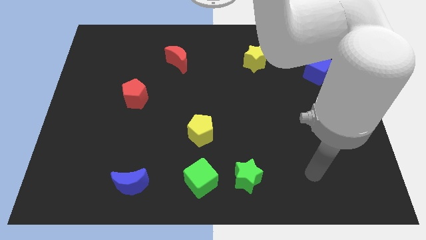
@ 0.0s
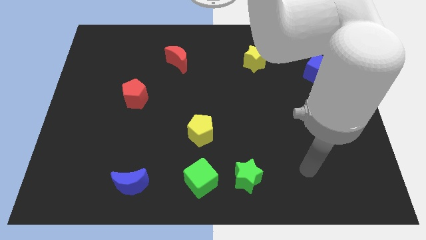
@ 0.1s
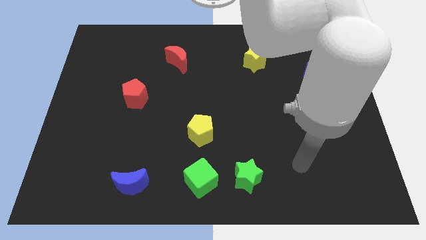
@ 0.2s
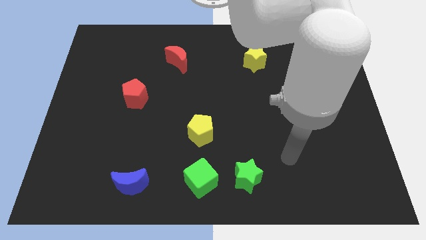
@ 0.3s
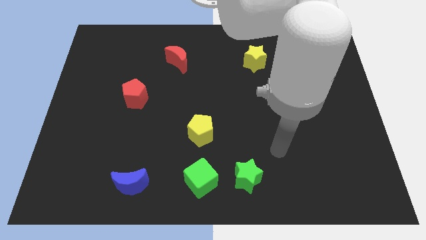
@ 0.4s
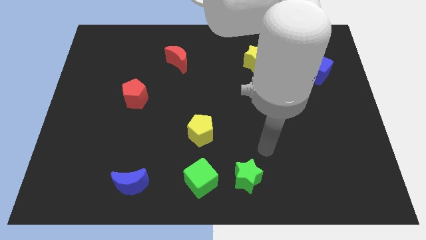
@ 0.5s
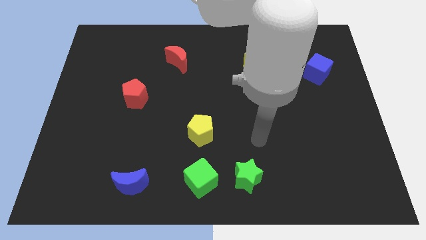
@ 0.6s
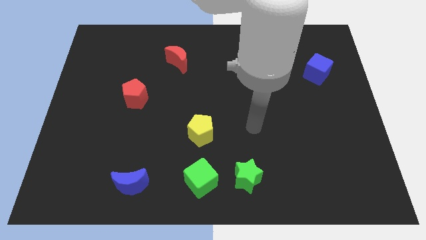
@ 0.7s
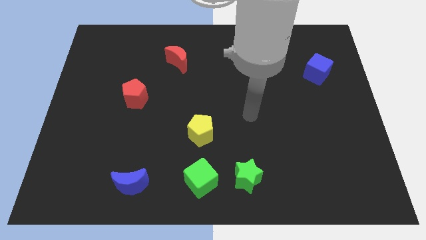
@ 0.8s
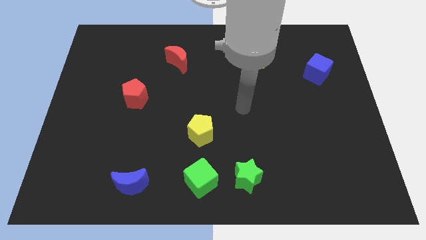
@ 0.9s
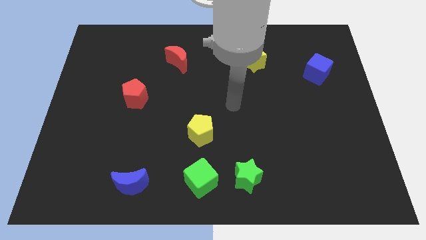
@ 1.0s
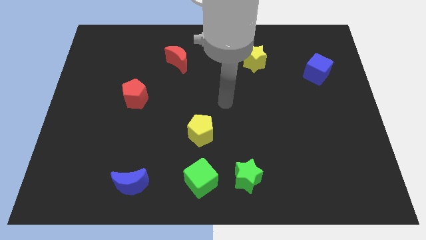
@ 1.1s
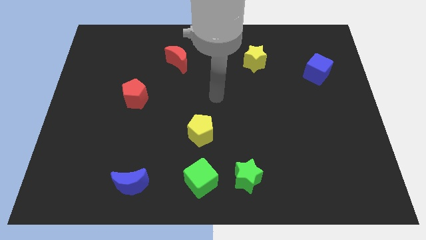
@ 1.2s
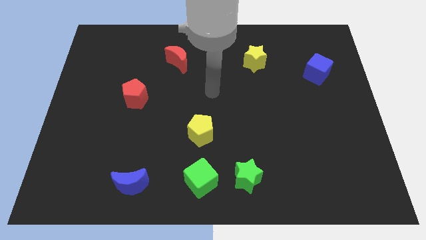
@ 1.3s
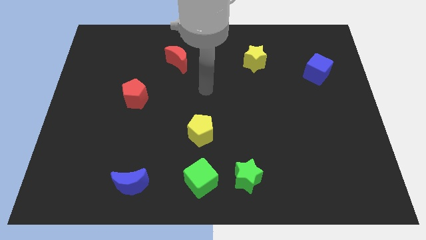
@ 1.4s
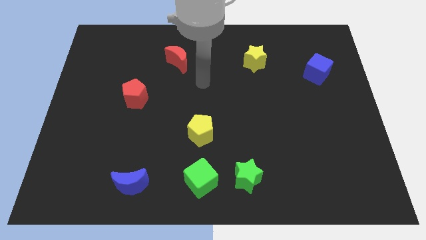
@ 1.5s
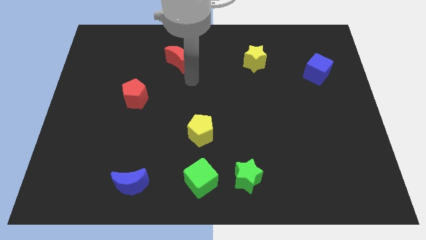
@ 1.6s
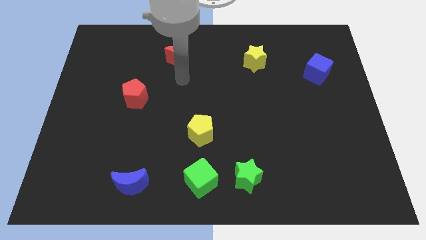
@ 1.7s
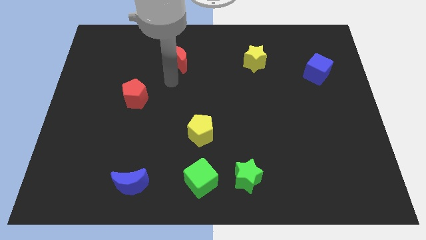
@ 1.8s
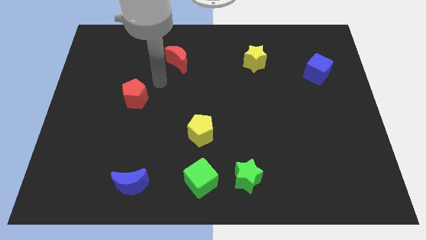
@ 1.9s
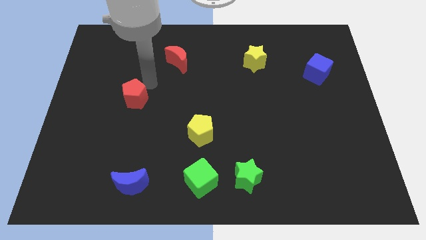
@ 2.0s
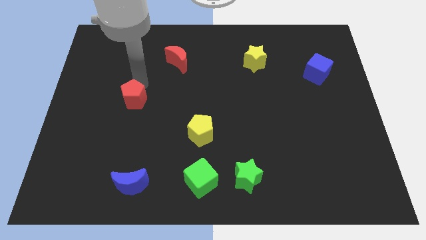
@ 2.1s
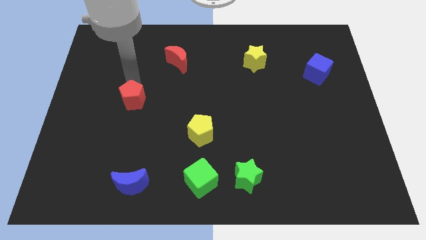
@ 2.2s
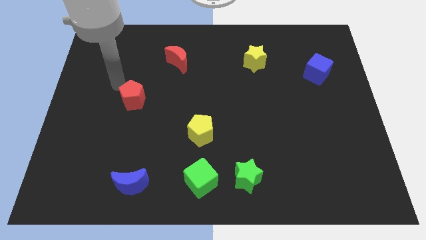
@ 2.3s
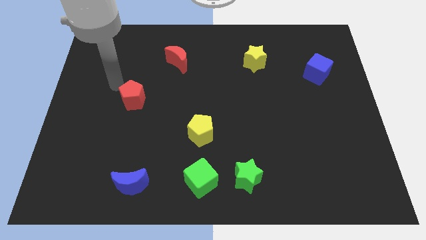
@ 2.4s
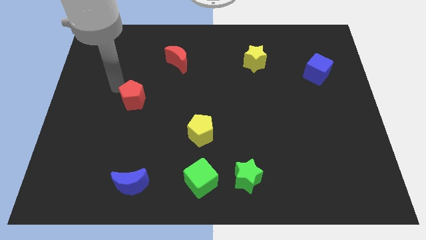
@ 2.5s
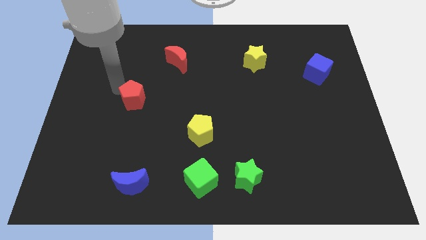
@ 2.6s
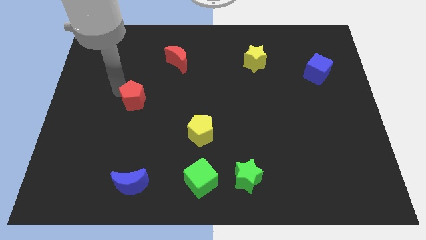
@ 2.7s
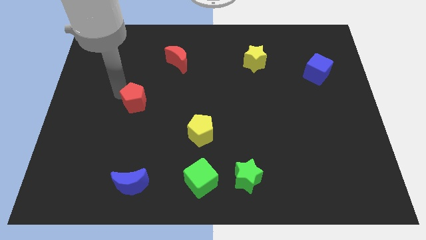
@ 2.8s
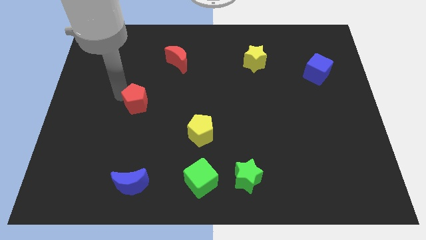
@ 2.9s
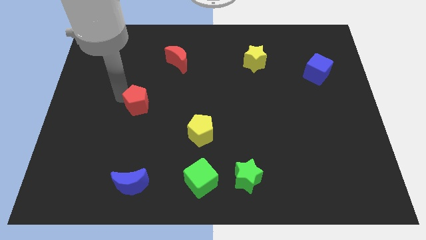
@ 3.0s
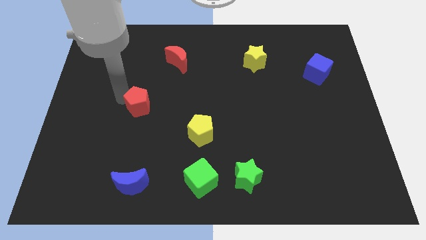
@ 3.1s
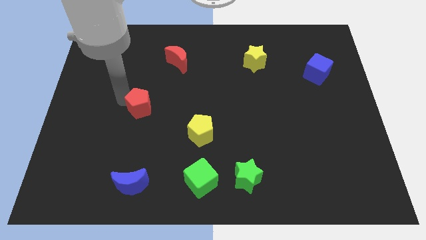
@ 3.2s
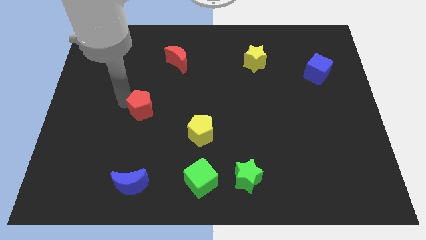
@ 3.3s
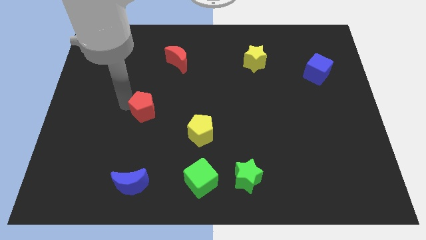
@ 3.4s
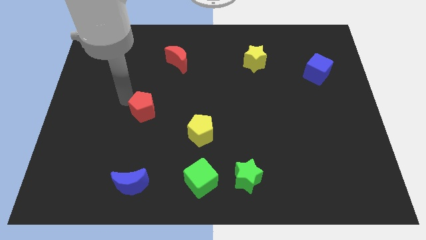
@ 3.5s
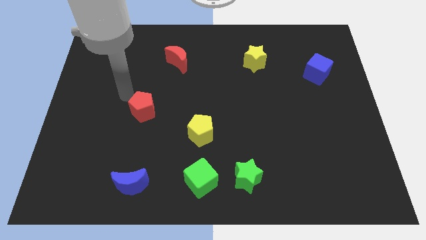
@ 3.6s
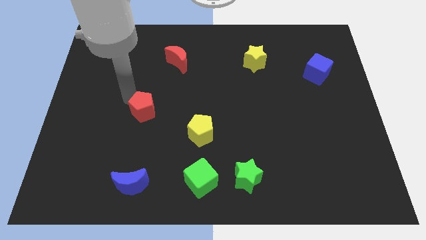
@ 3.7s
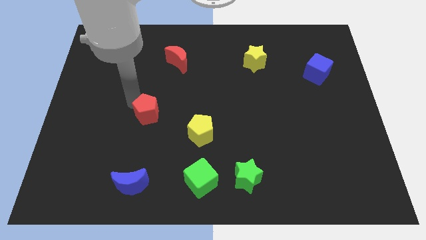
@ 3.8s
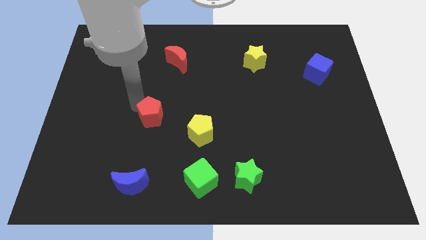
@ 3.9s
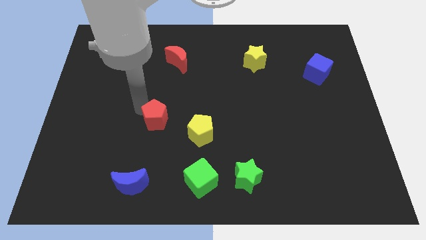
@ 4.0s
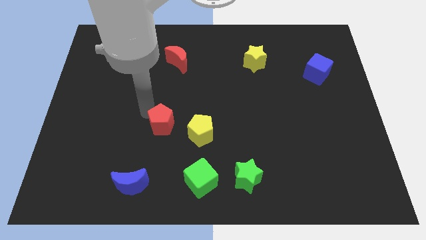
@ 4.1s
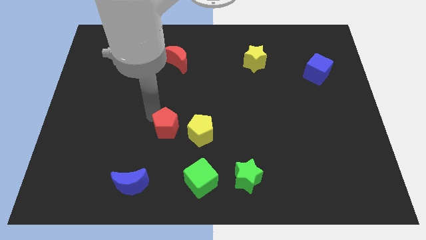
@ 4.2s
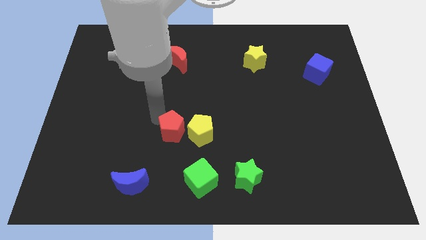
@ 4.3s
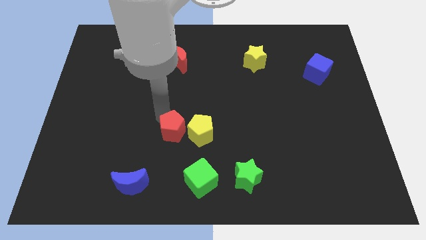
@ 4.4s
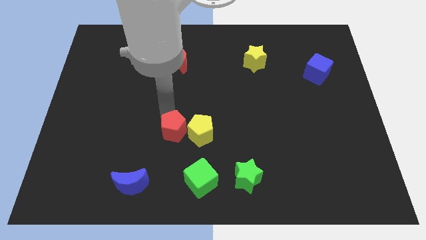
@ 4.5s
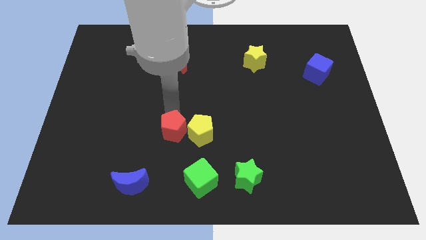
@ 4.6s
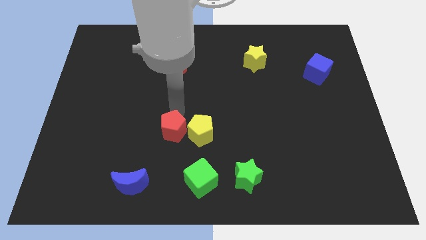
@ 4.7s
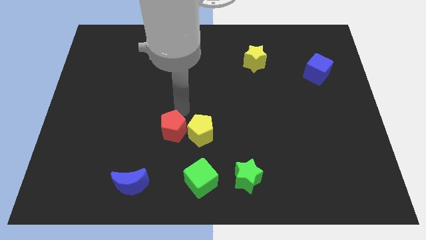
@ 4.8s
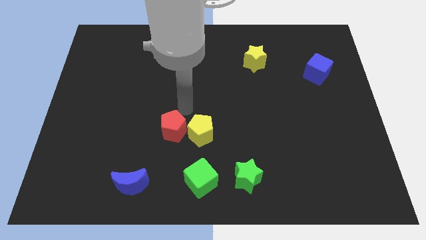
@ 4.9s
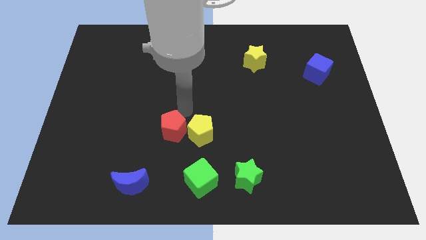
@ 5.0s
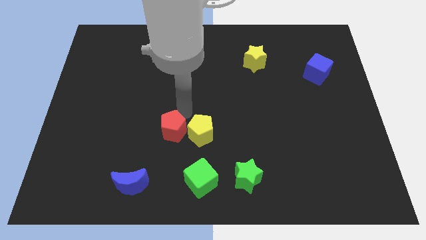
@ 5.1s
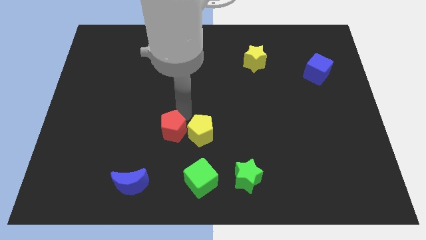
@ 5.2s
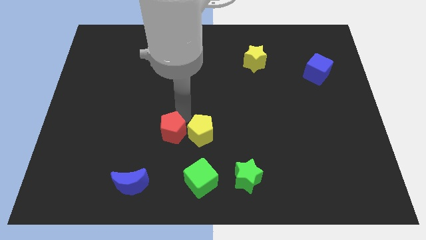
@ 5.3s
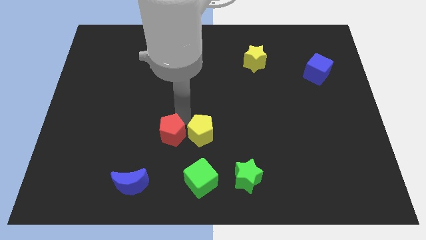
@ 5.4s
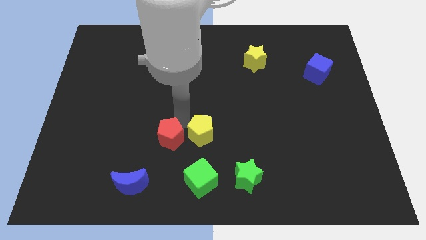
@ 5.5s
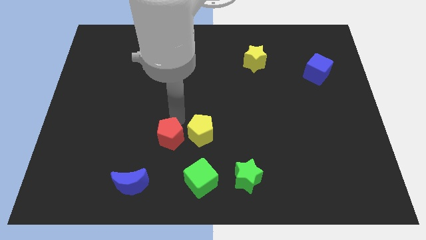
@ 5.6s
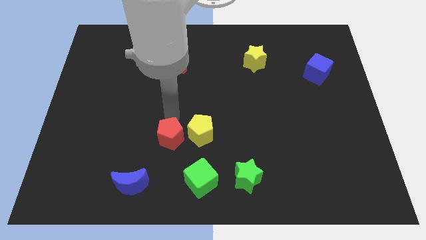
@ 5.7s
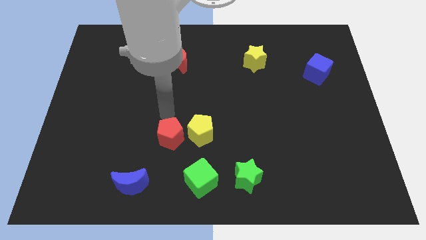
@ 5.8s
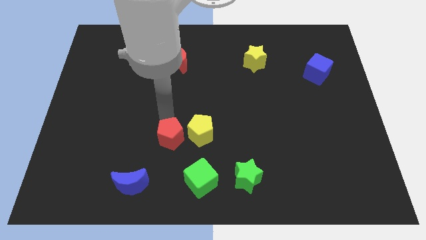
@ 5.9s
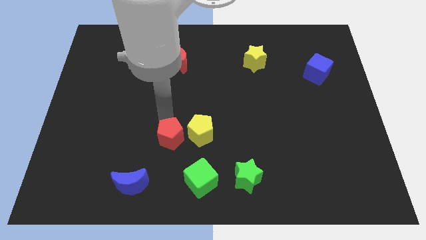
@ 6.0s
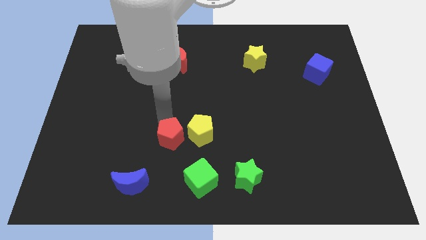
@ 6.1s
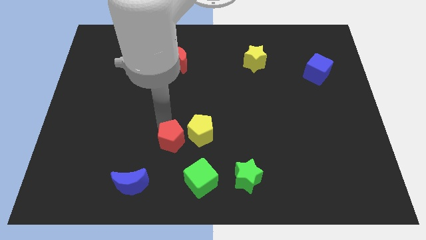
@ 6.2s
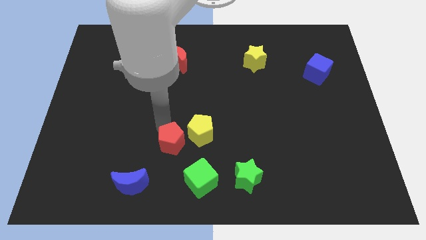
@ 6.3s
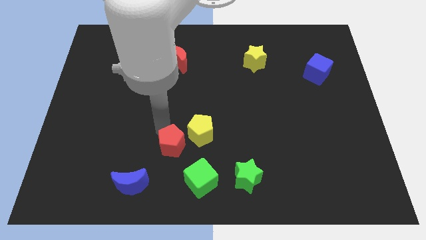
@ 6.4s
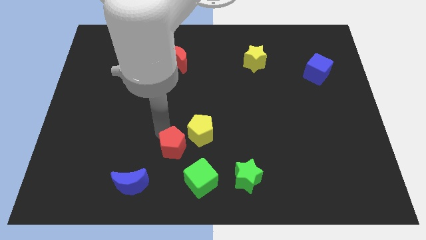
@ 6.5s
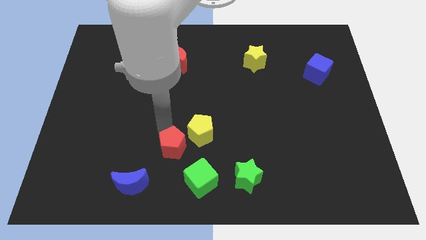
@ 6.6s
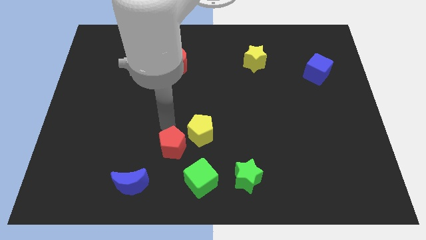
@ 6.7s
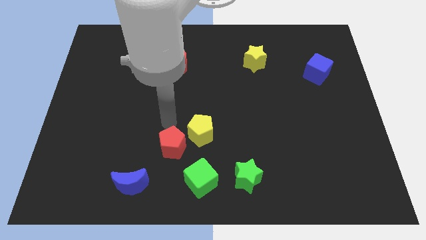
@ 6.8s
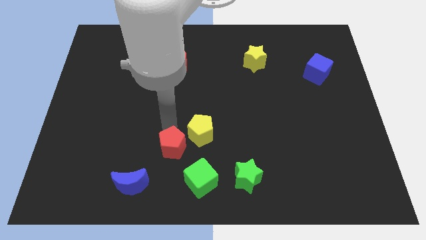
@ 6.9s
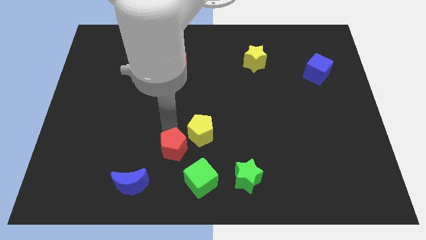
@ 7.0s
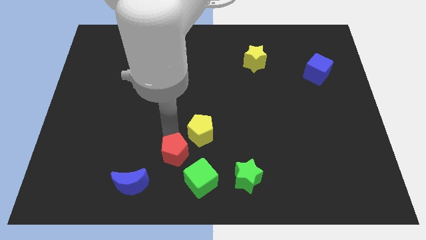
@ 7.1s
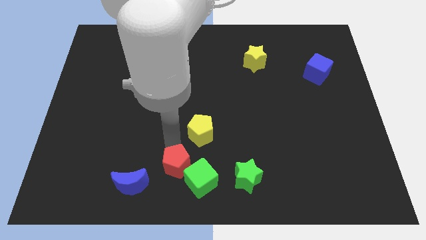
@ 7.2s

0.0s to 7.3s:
move the red pentagon to the bottom side
